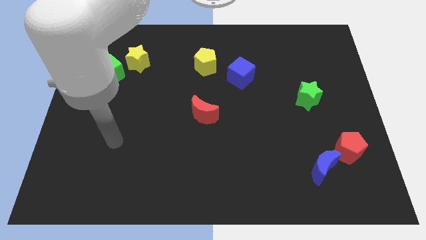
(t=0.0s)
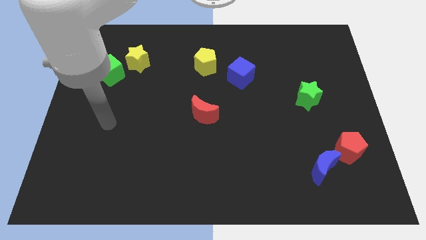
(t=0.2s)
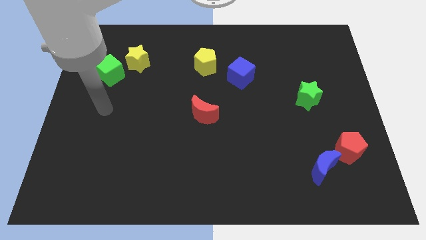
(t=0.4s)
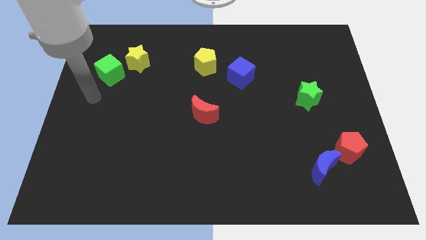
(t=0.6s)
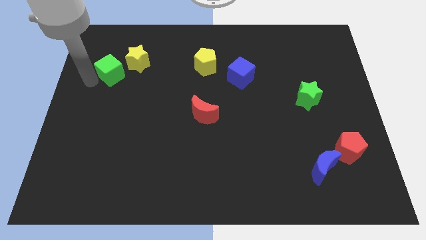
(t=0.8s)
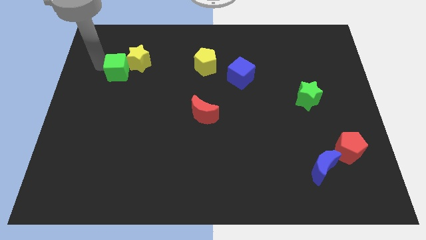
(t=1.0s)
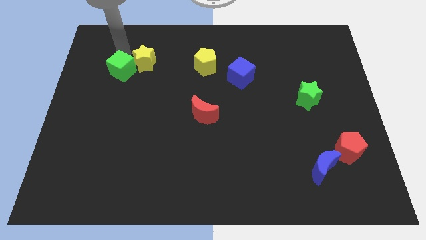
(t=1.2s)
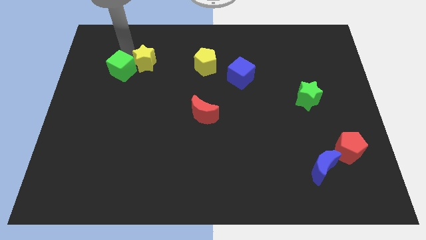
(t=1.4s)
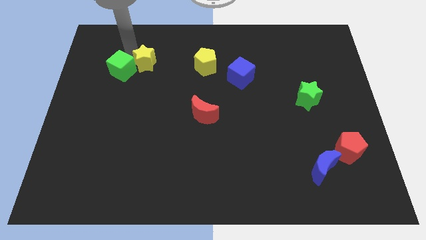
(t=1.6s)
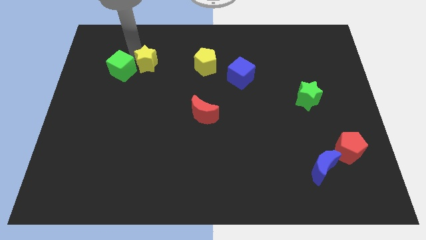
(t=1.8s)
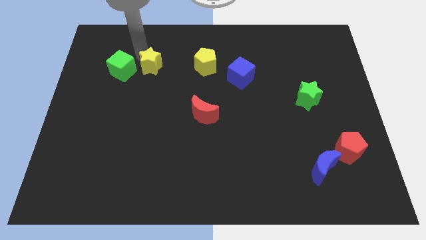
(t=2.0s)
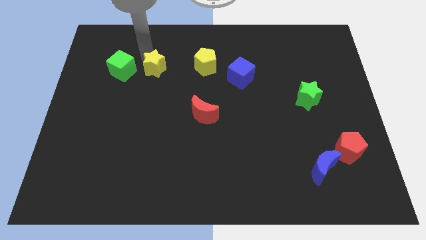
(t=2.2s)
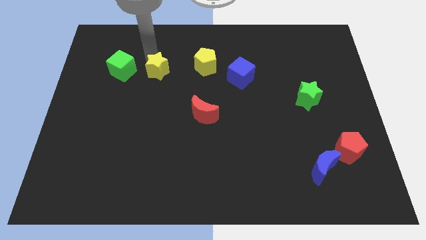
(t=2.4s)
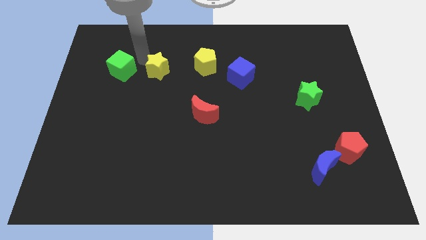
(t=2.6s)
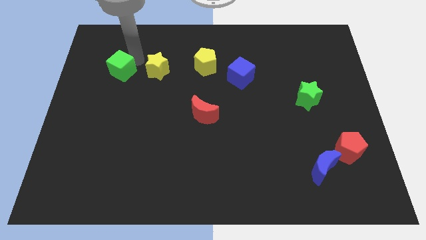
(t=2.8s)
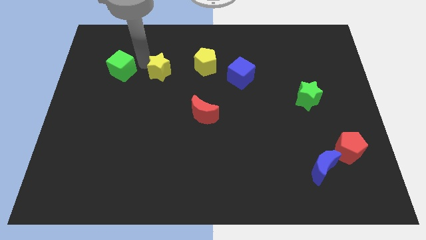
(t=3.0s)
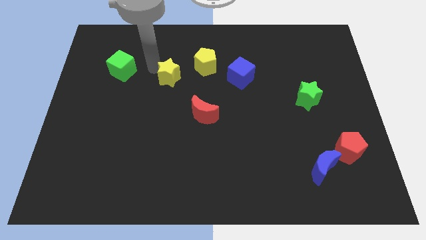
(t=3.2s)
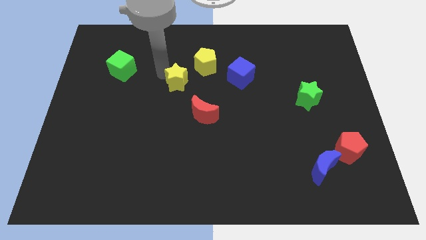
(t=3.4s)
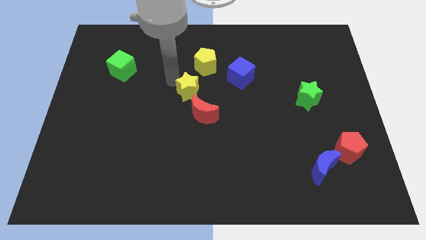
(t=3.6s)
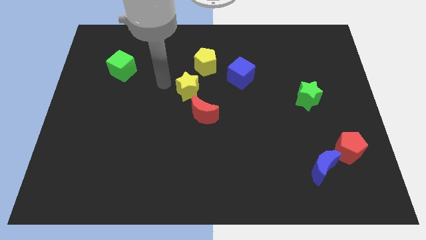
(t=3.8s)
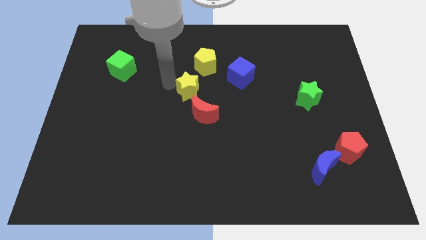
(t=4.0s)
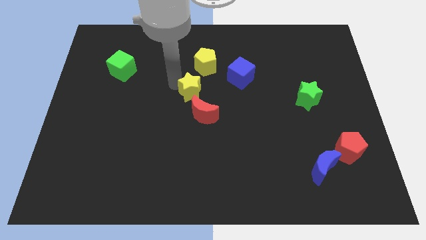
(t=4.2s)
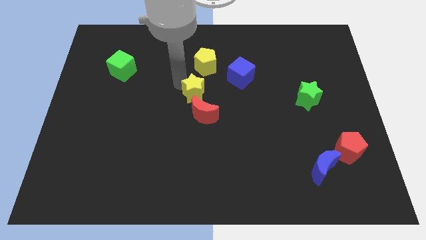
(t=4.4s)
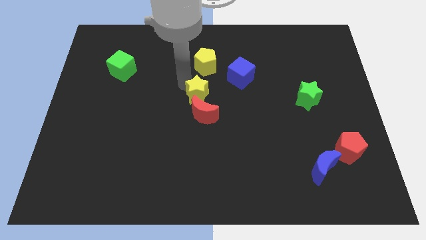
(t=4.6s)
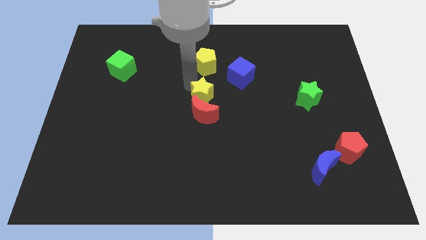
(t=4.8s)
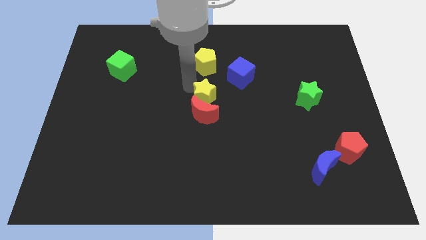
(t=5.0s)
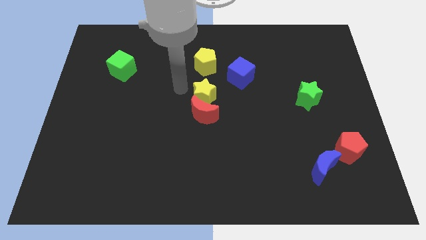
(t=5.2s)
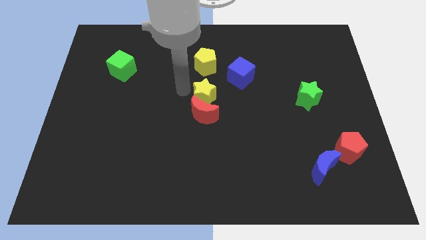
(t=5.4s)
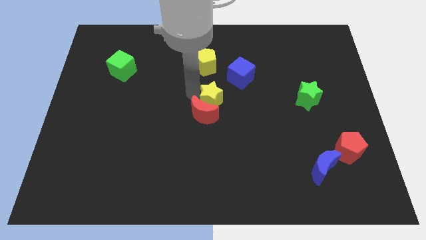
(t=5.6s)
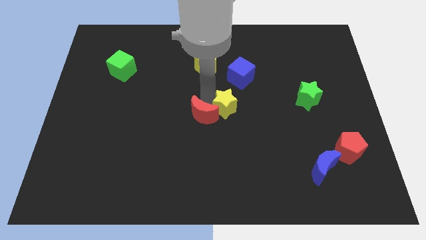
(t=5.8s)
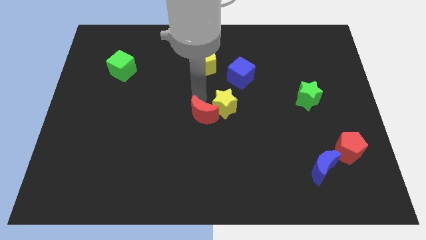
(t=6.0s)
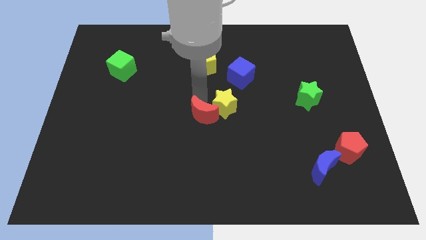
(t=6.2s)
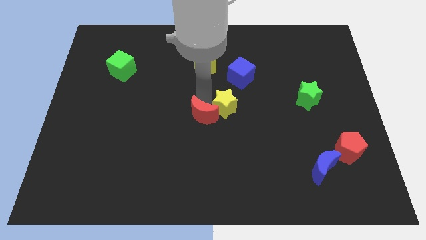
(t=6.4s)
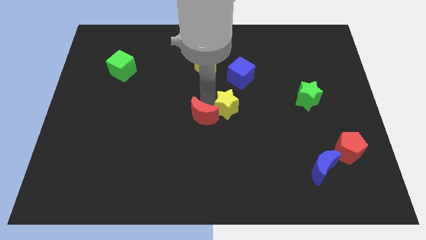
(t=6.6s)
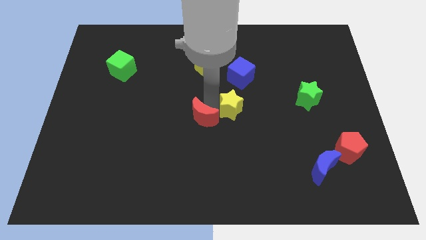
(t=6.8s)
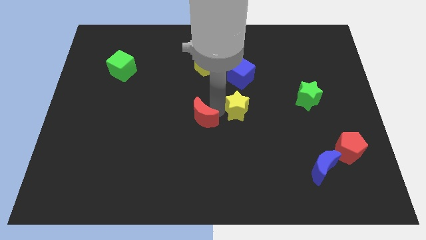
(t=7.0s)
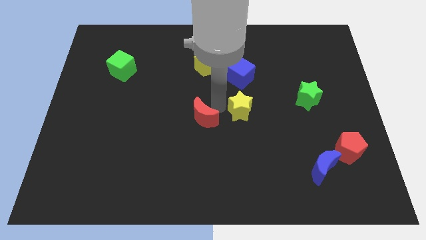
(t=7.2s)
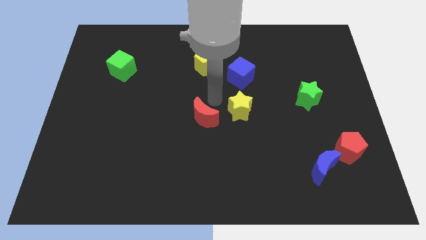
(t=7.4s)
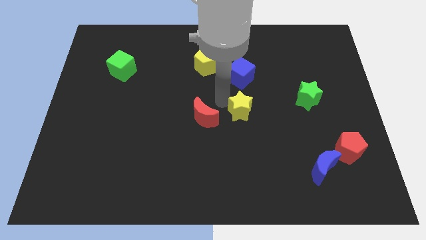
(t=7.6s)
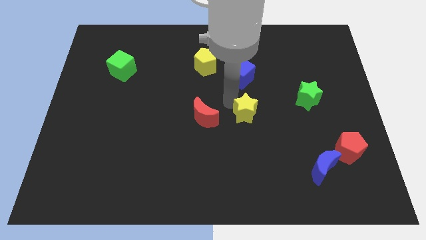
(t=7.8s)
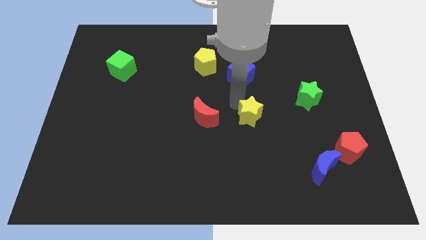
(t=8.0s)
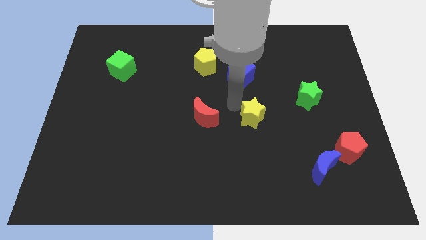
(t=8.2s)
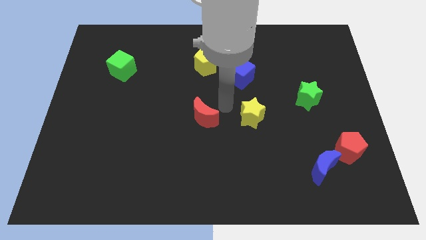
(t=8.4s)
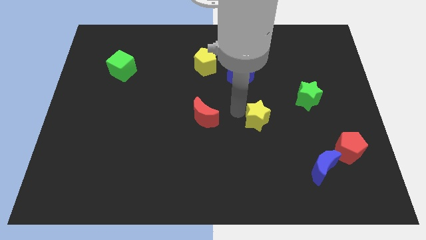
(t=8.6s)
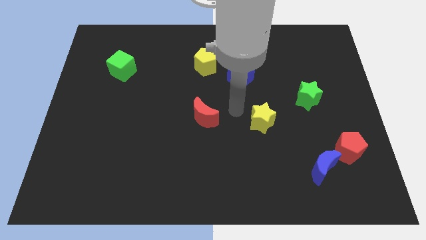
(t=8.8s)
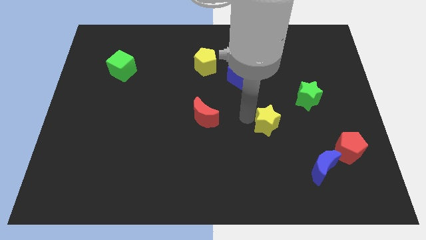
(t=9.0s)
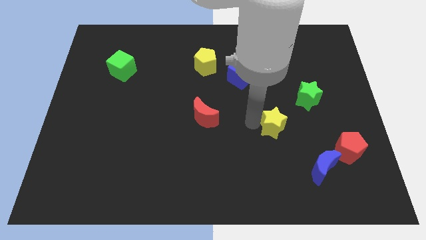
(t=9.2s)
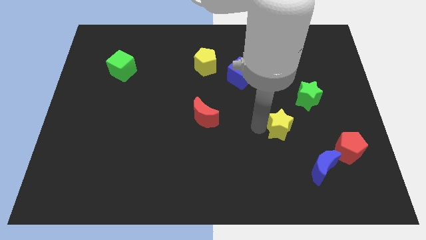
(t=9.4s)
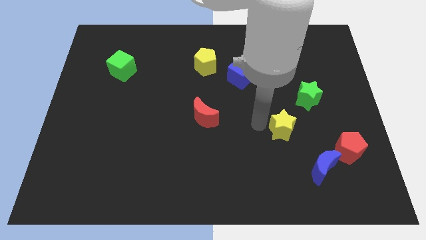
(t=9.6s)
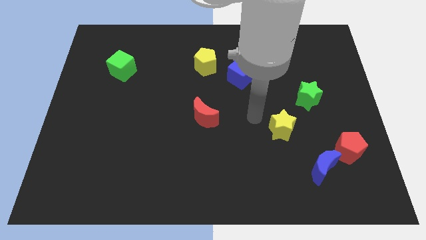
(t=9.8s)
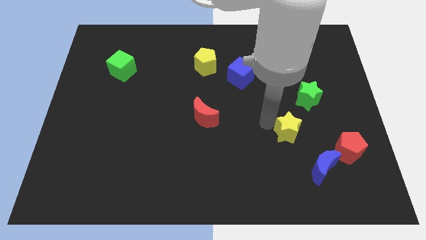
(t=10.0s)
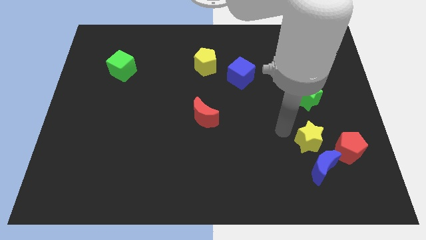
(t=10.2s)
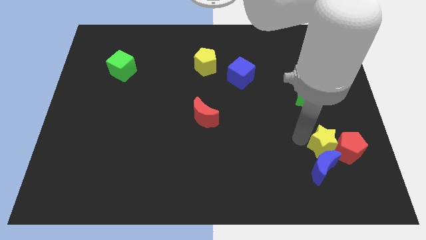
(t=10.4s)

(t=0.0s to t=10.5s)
push the yellow star towards the red pentagon

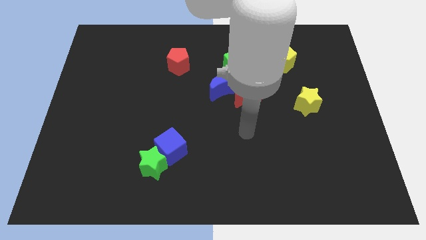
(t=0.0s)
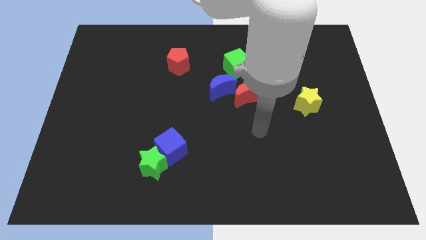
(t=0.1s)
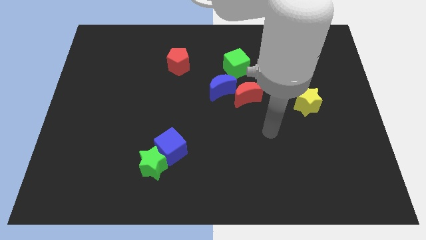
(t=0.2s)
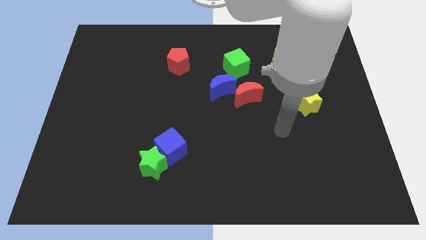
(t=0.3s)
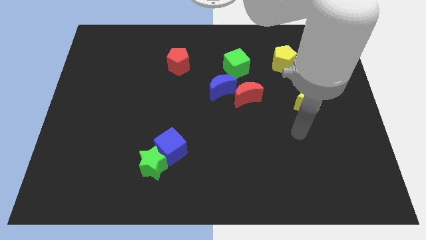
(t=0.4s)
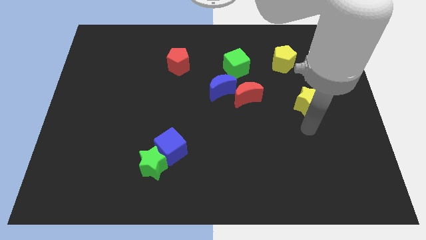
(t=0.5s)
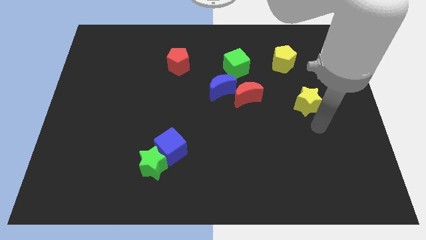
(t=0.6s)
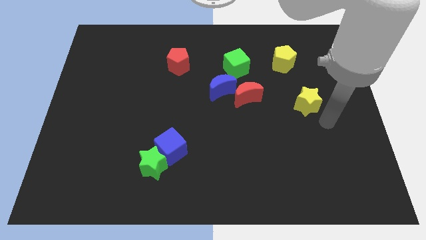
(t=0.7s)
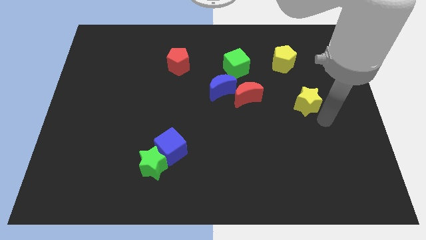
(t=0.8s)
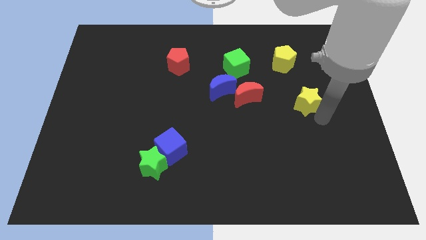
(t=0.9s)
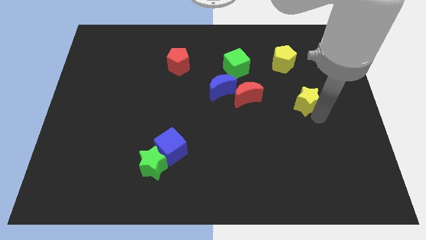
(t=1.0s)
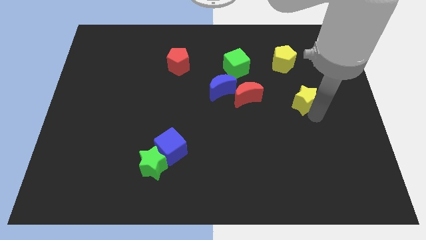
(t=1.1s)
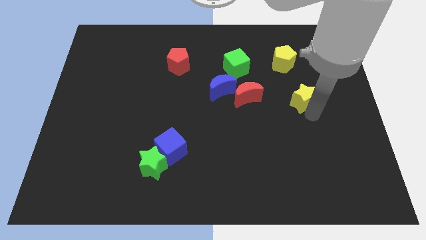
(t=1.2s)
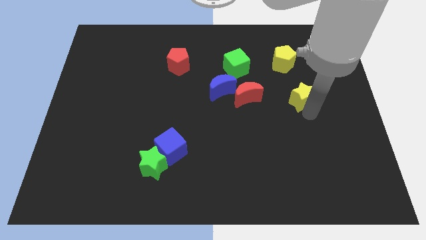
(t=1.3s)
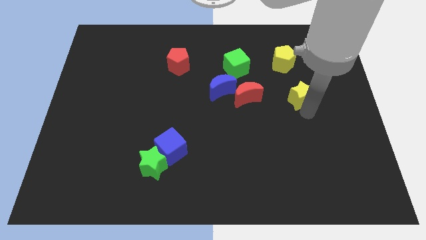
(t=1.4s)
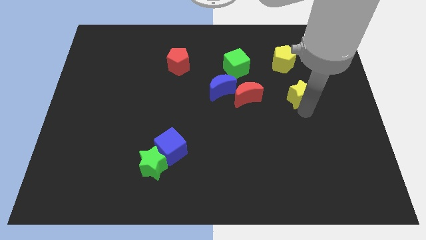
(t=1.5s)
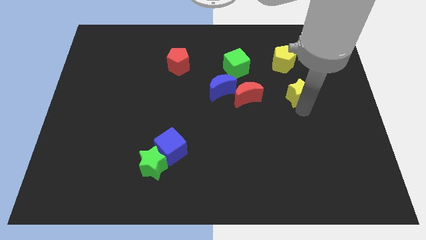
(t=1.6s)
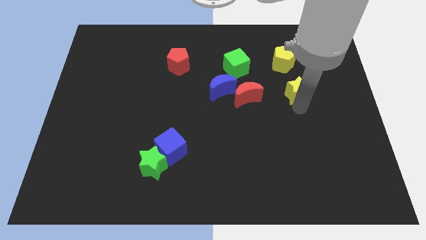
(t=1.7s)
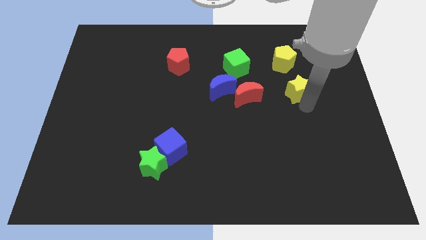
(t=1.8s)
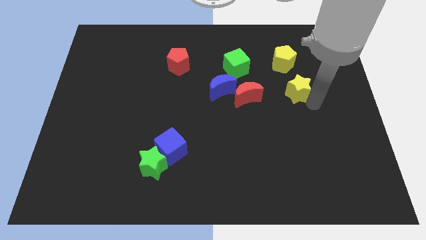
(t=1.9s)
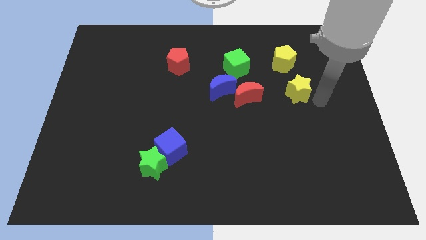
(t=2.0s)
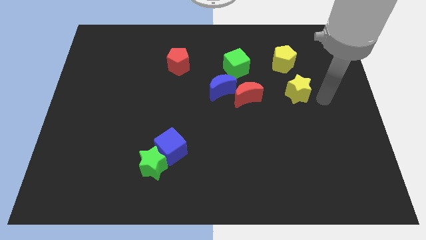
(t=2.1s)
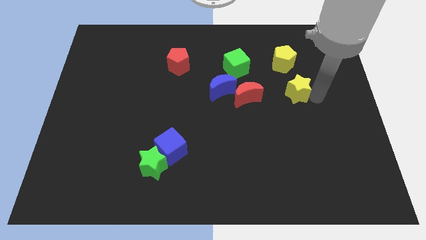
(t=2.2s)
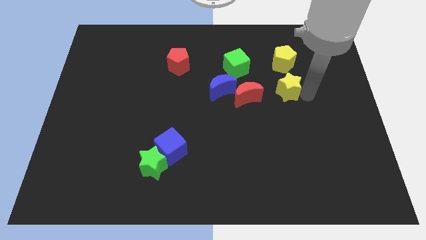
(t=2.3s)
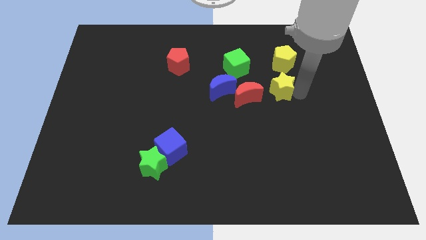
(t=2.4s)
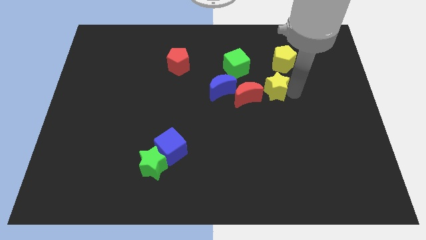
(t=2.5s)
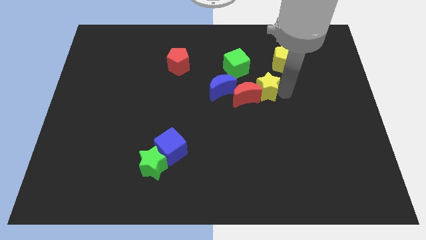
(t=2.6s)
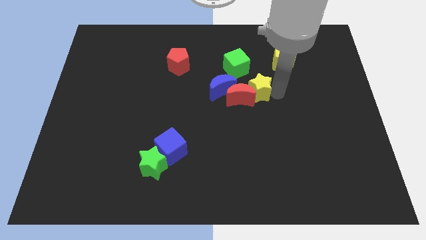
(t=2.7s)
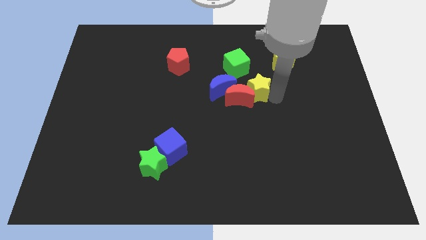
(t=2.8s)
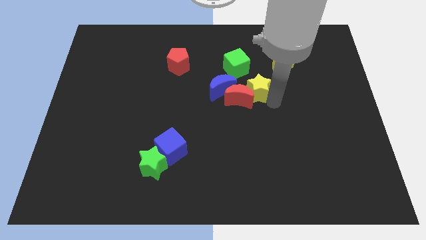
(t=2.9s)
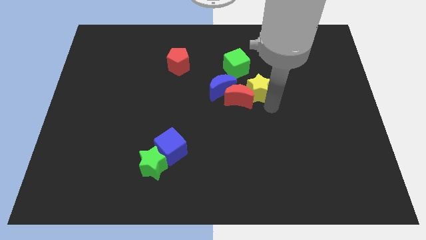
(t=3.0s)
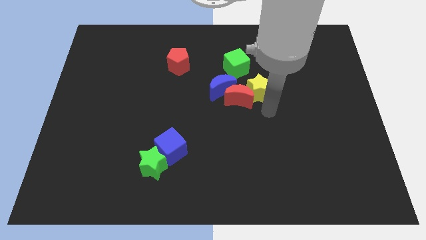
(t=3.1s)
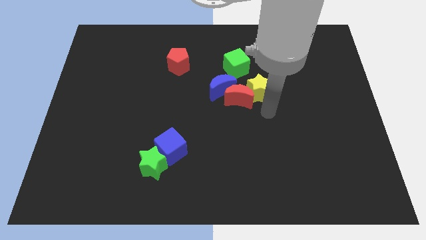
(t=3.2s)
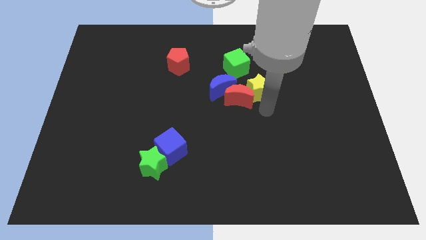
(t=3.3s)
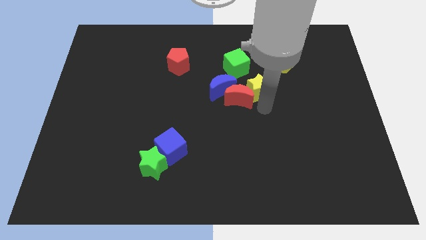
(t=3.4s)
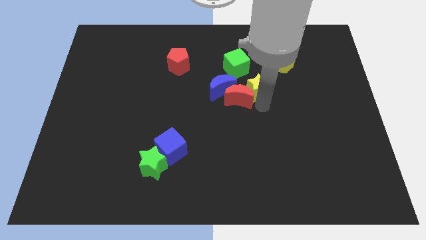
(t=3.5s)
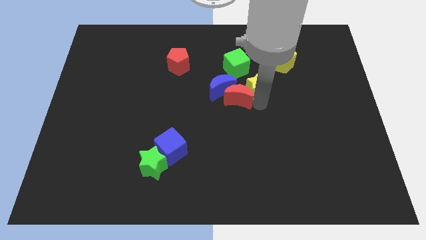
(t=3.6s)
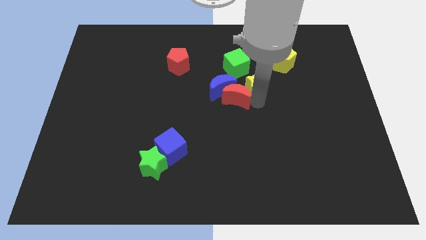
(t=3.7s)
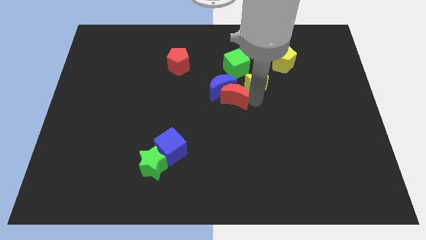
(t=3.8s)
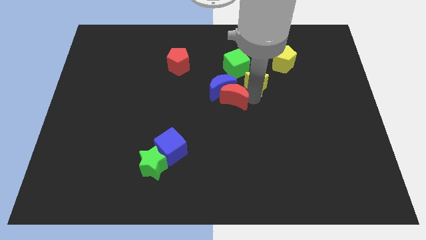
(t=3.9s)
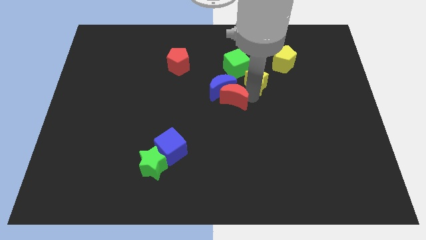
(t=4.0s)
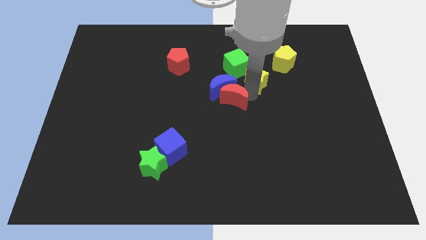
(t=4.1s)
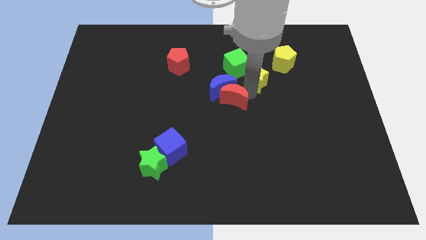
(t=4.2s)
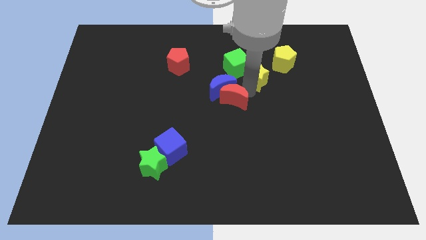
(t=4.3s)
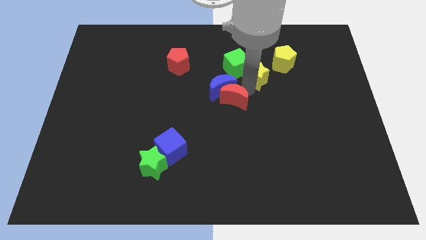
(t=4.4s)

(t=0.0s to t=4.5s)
push the yellow star towards the green cube
